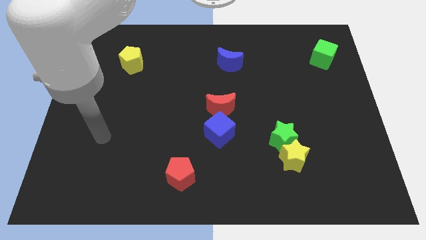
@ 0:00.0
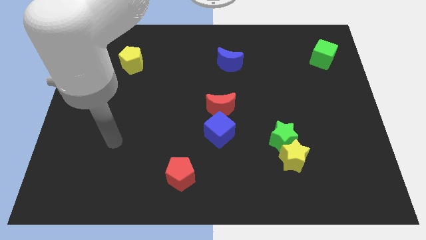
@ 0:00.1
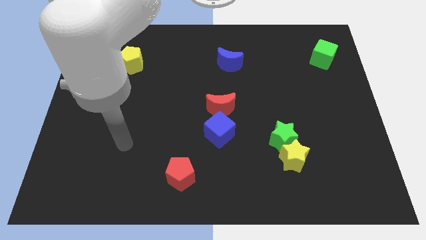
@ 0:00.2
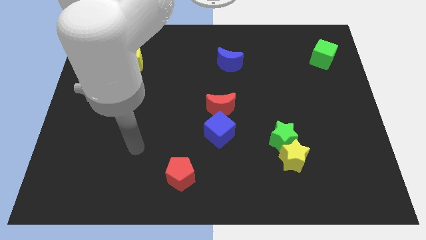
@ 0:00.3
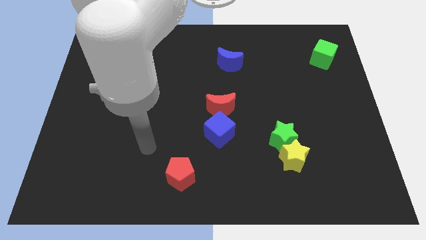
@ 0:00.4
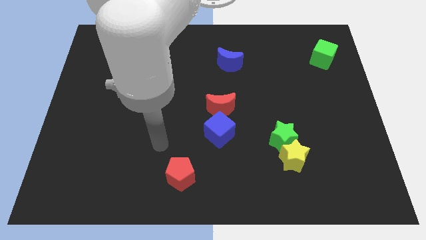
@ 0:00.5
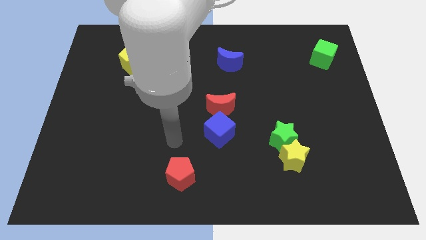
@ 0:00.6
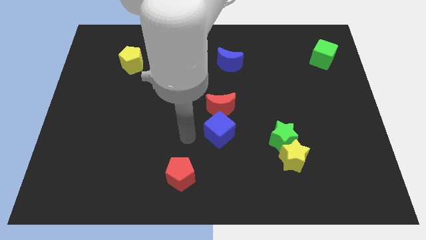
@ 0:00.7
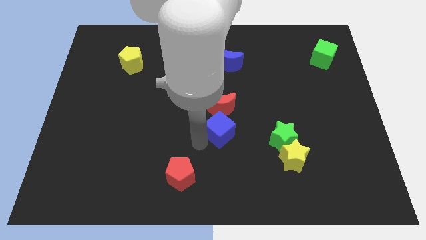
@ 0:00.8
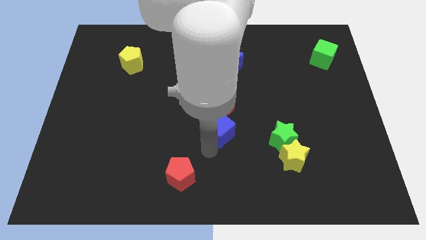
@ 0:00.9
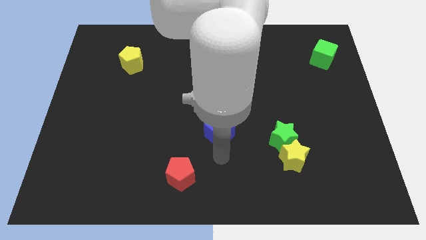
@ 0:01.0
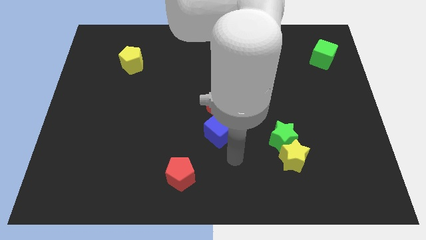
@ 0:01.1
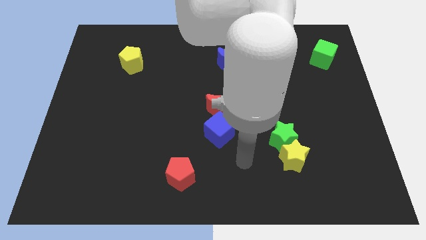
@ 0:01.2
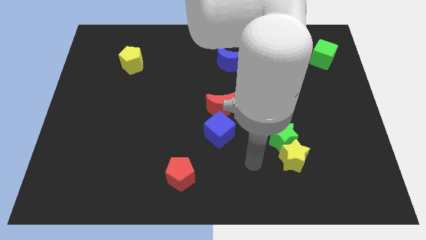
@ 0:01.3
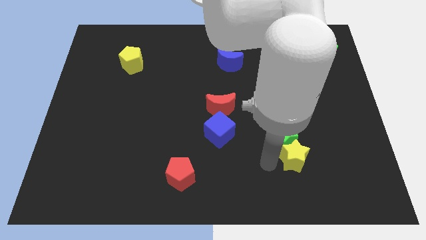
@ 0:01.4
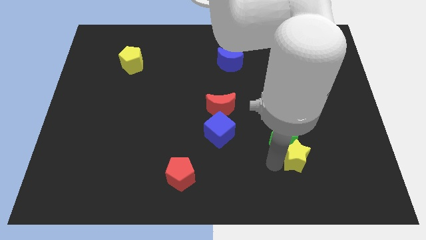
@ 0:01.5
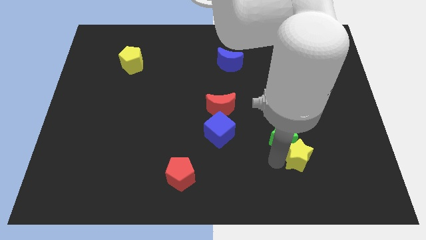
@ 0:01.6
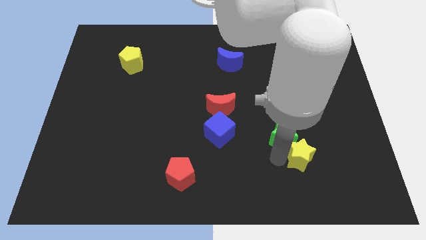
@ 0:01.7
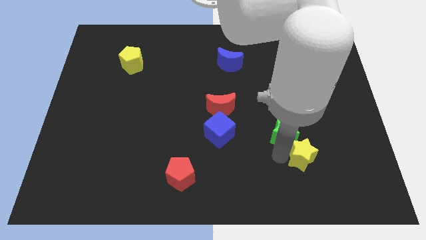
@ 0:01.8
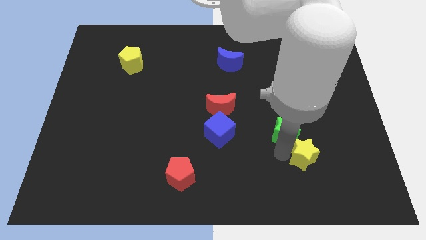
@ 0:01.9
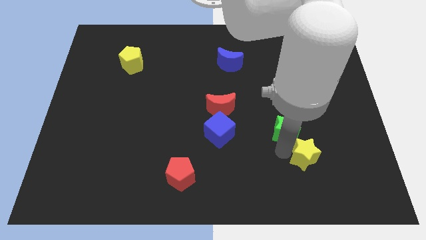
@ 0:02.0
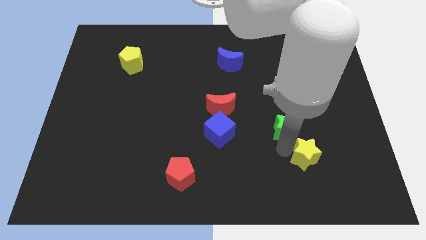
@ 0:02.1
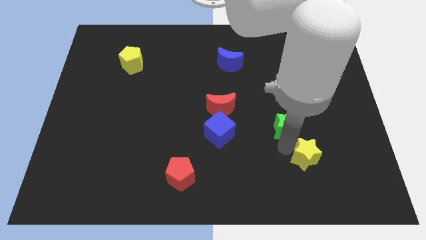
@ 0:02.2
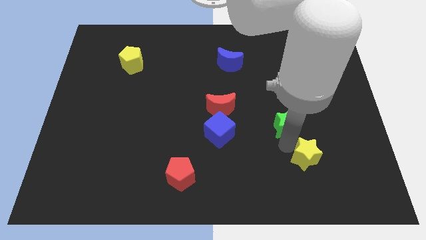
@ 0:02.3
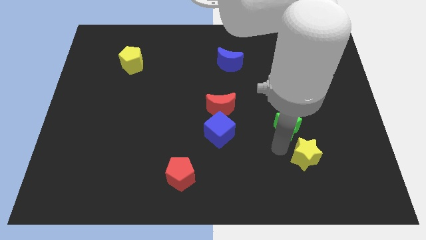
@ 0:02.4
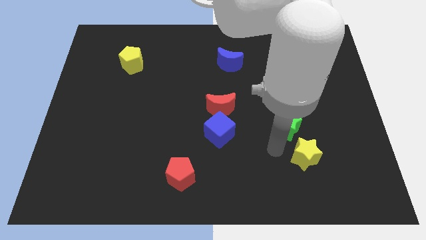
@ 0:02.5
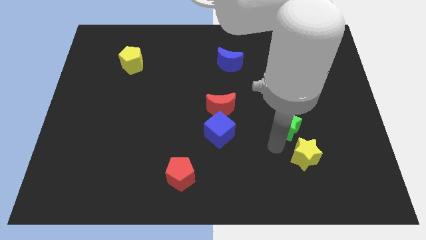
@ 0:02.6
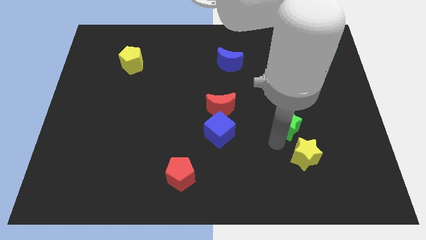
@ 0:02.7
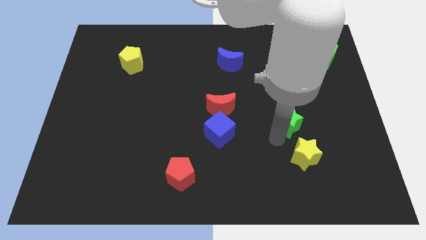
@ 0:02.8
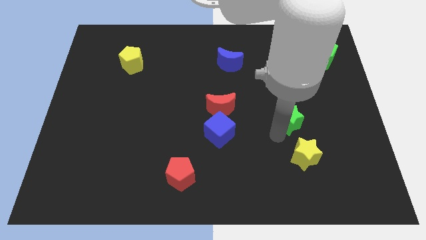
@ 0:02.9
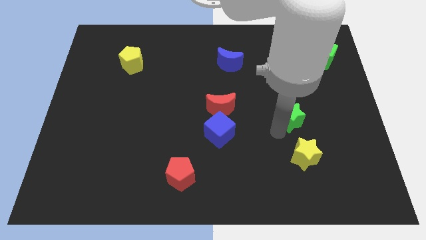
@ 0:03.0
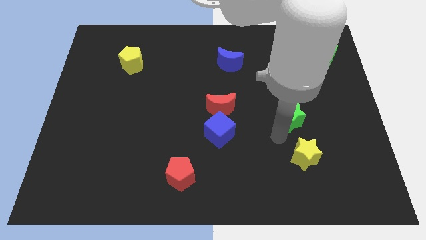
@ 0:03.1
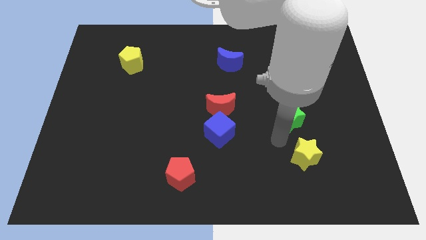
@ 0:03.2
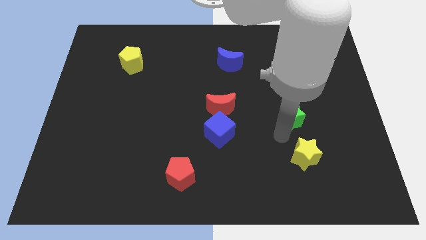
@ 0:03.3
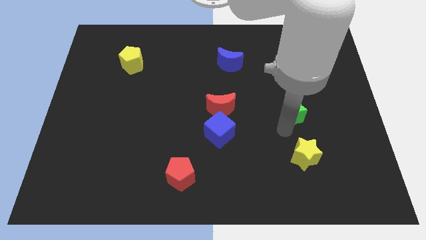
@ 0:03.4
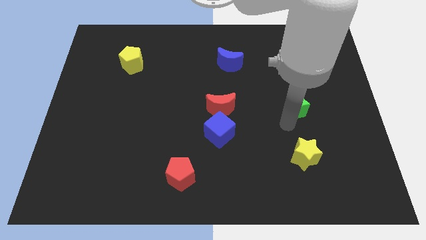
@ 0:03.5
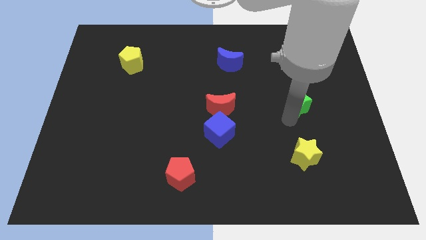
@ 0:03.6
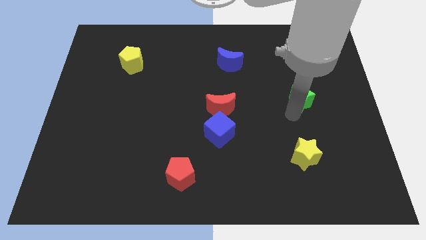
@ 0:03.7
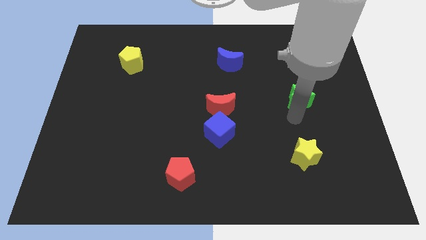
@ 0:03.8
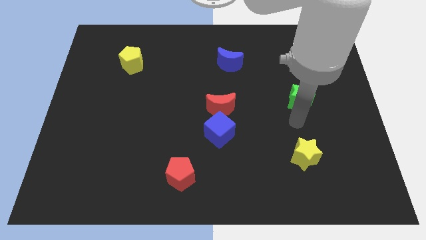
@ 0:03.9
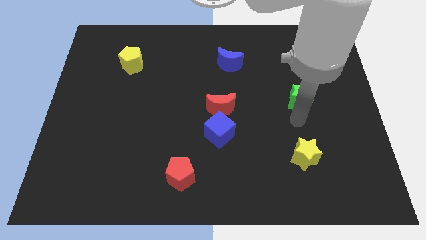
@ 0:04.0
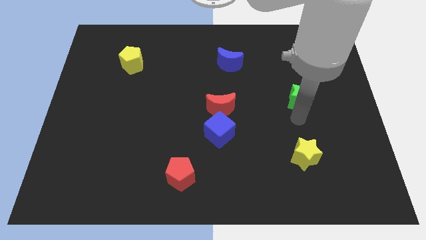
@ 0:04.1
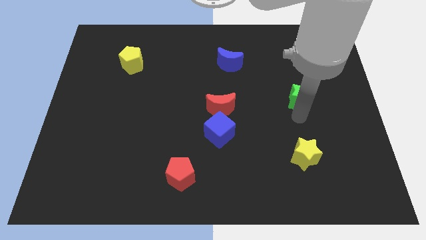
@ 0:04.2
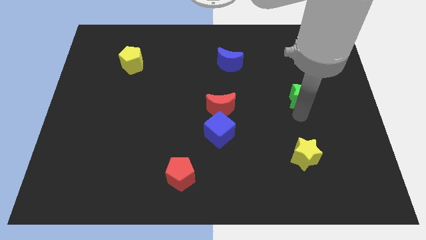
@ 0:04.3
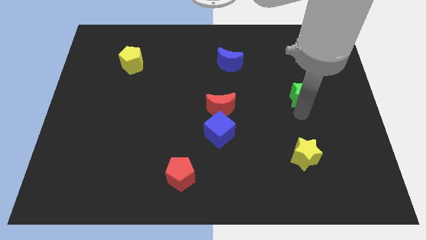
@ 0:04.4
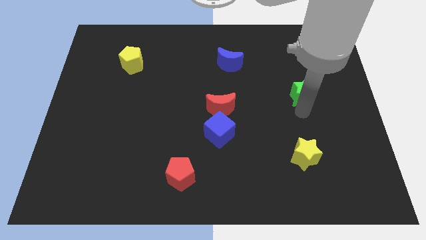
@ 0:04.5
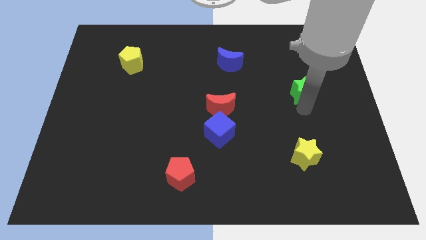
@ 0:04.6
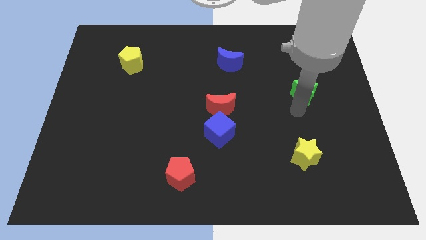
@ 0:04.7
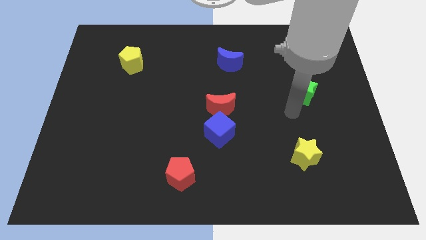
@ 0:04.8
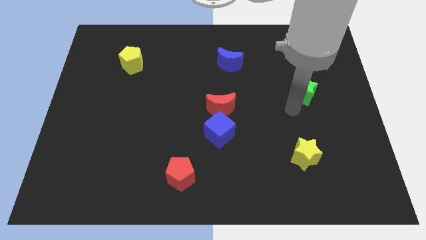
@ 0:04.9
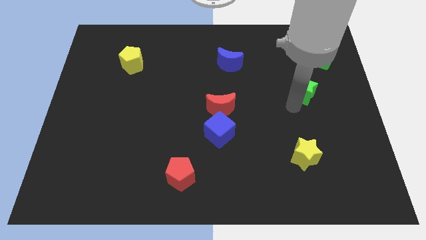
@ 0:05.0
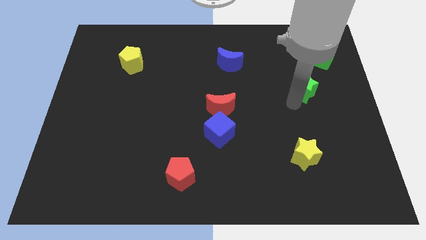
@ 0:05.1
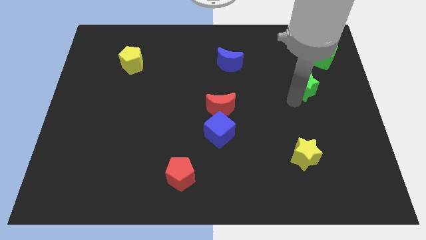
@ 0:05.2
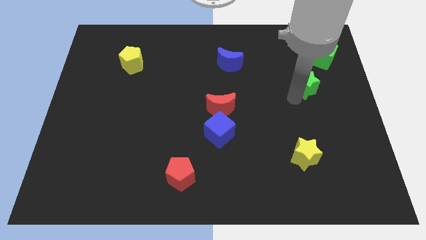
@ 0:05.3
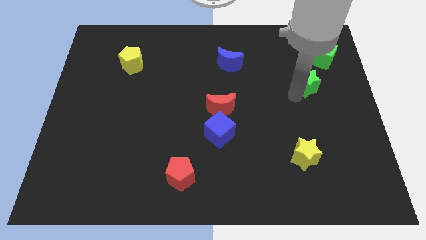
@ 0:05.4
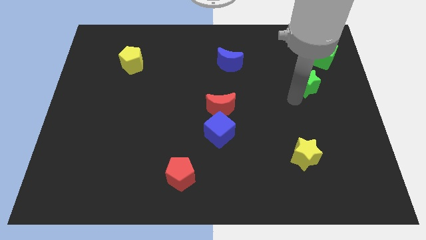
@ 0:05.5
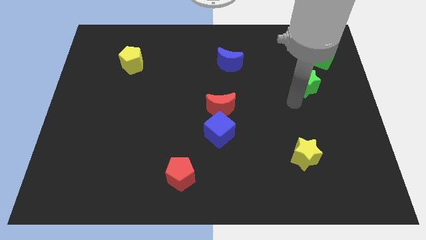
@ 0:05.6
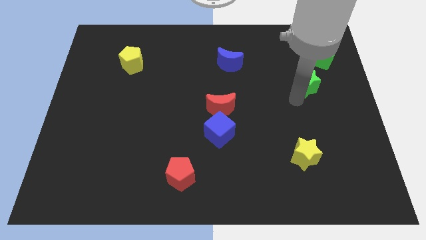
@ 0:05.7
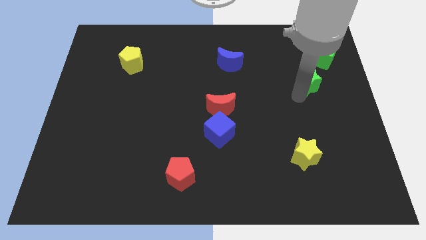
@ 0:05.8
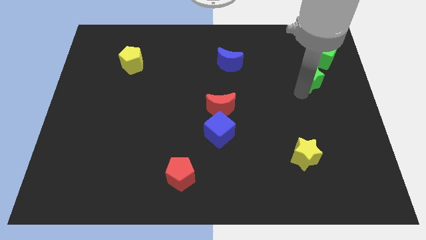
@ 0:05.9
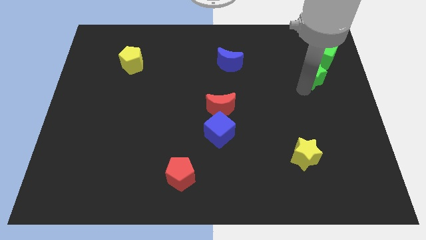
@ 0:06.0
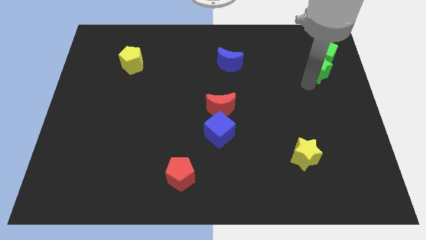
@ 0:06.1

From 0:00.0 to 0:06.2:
put the green star to the green cube

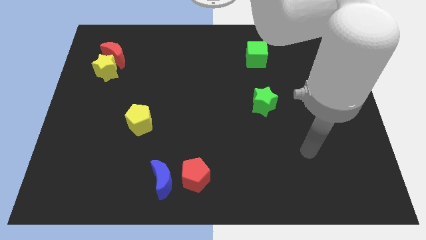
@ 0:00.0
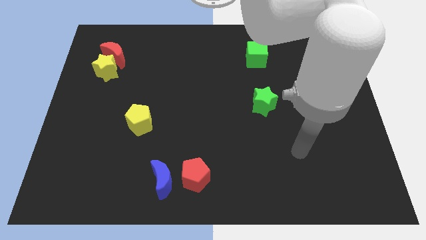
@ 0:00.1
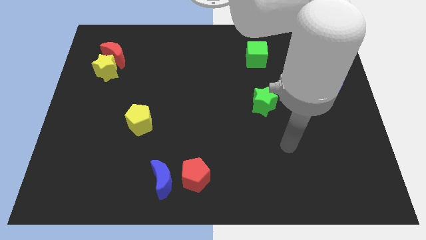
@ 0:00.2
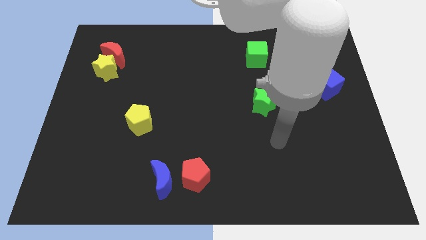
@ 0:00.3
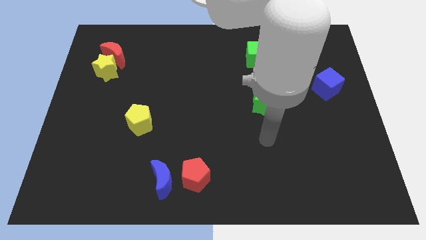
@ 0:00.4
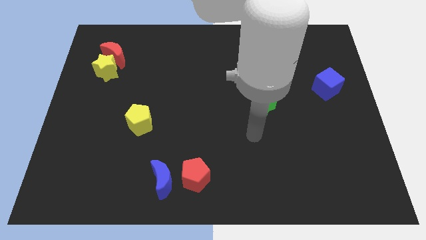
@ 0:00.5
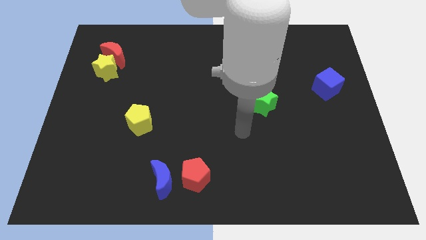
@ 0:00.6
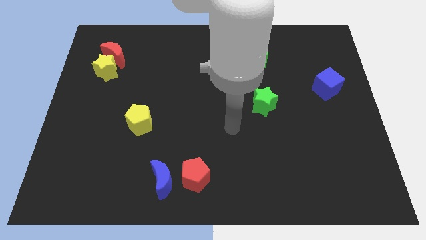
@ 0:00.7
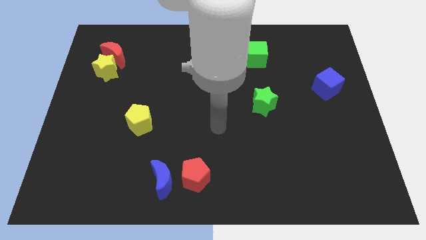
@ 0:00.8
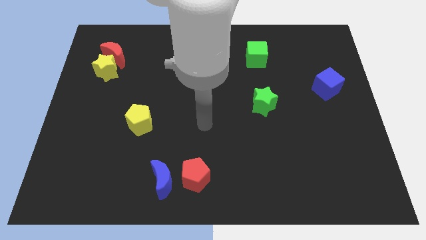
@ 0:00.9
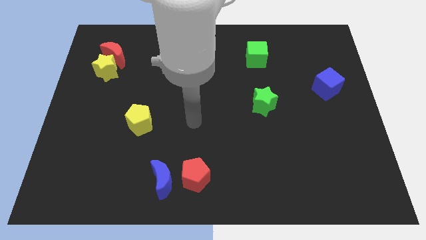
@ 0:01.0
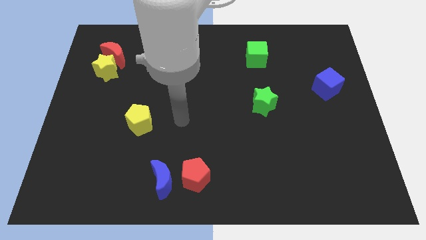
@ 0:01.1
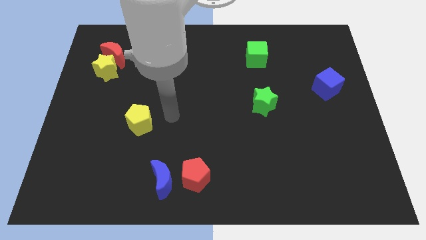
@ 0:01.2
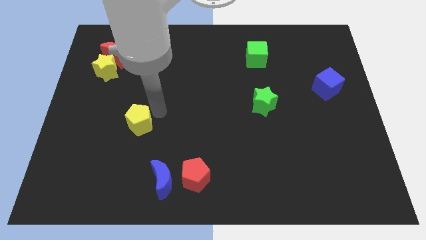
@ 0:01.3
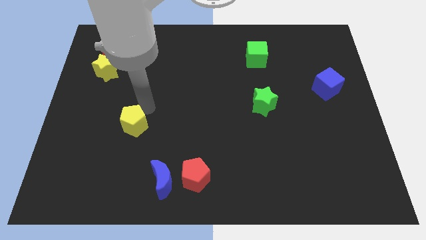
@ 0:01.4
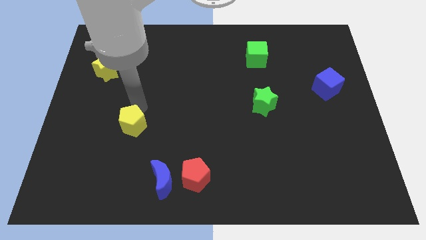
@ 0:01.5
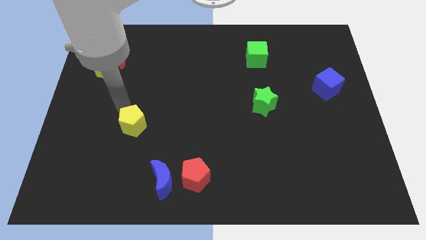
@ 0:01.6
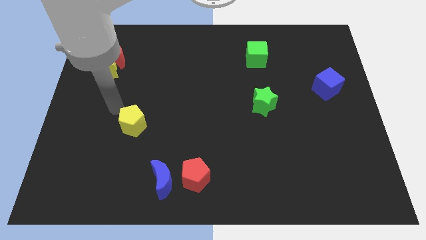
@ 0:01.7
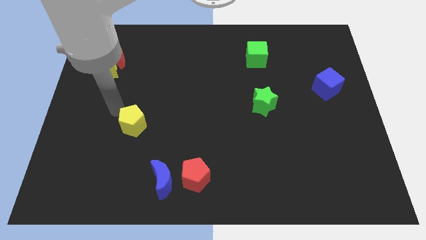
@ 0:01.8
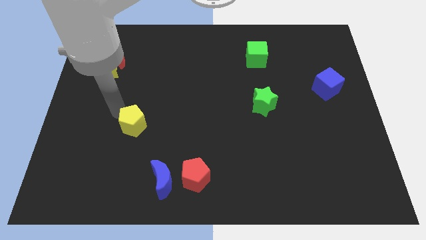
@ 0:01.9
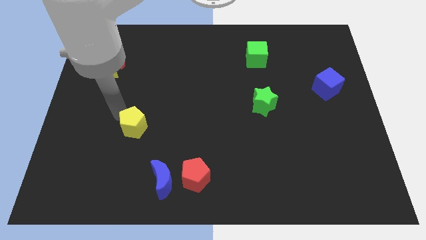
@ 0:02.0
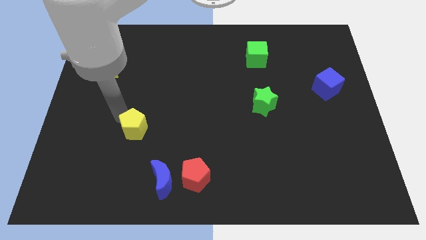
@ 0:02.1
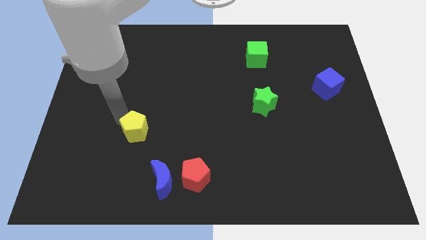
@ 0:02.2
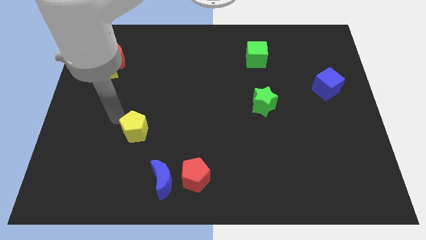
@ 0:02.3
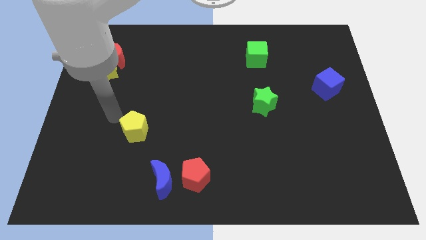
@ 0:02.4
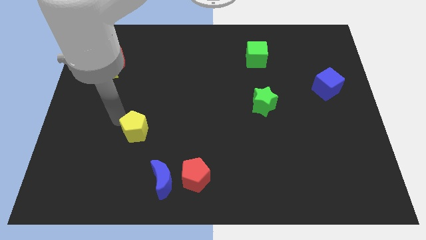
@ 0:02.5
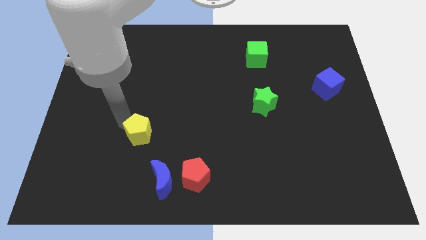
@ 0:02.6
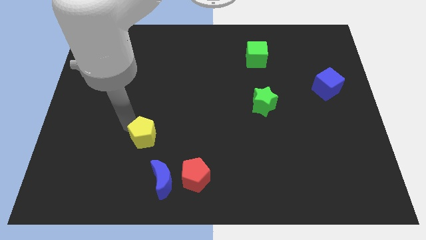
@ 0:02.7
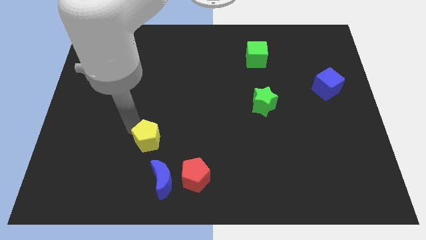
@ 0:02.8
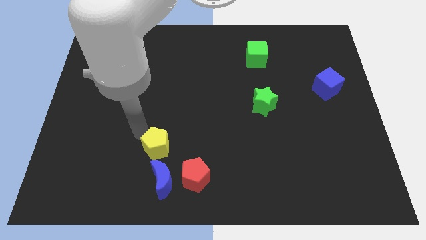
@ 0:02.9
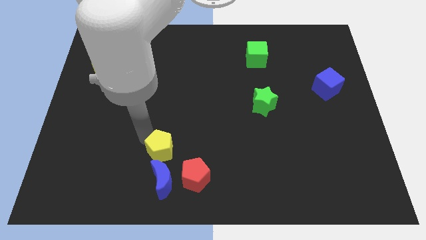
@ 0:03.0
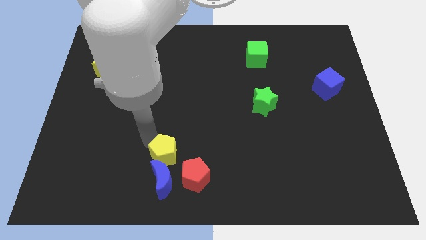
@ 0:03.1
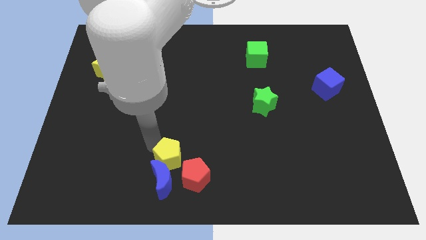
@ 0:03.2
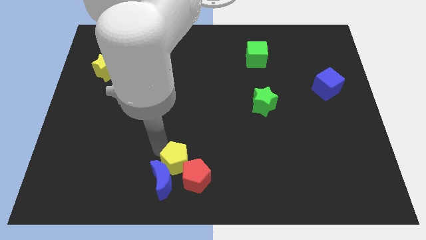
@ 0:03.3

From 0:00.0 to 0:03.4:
move the yellow pentagon next to the red pentagon
